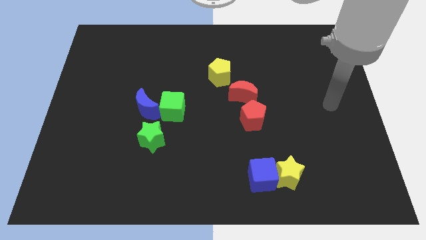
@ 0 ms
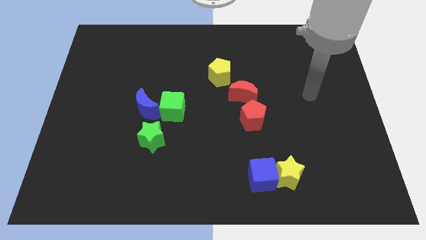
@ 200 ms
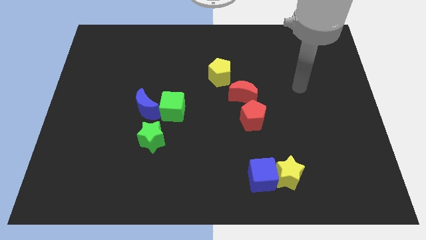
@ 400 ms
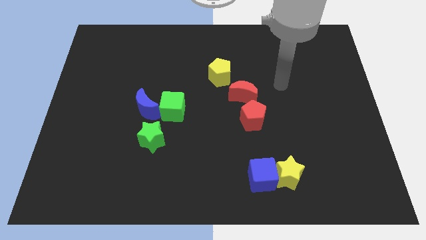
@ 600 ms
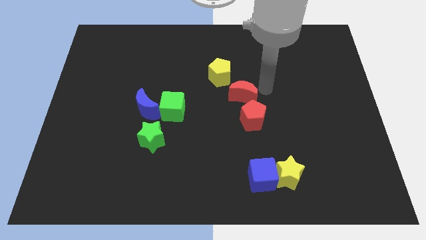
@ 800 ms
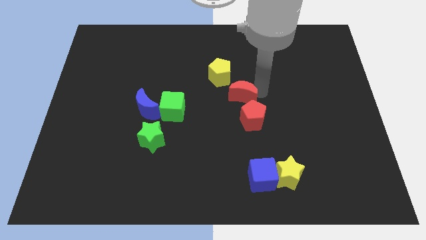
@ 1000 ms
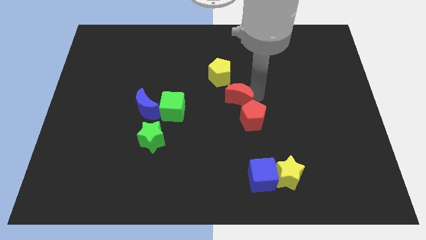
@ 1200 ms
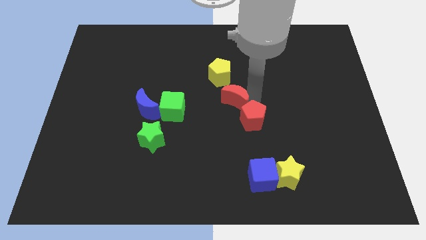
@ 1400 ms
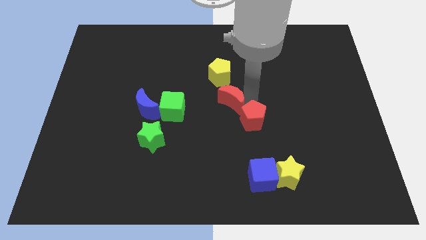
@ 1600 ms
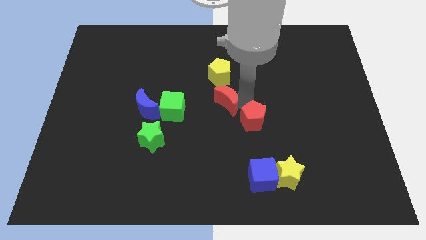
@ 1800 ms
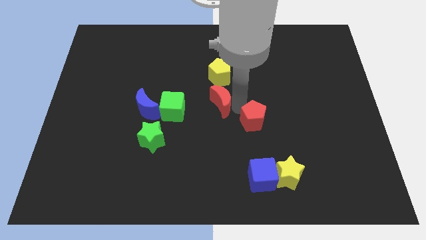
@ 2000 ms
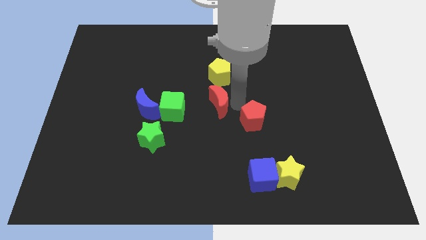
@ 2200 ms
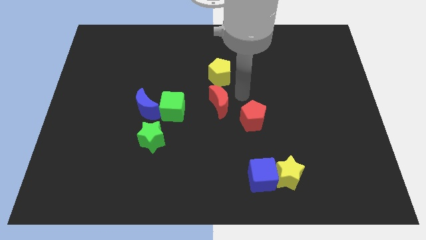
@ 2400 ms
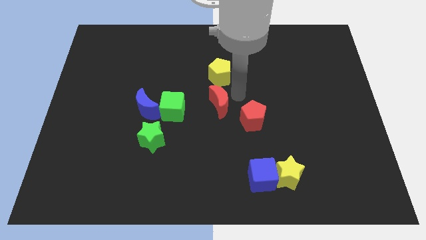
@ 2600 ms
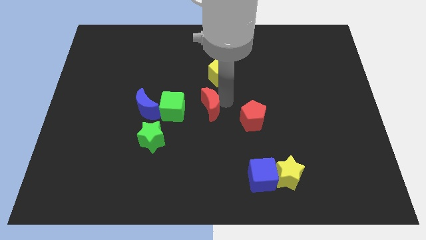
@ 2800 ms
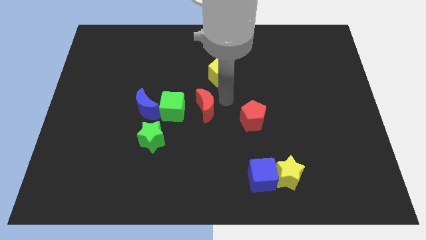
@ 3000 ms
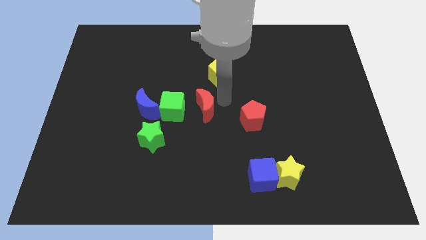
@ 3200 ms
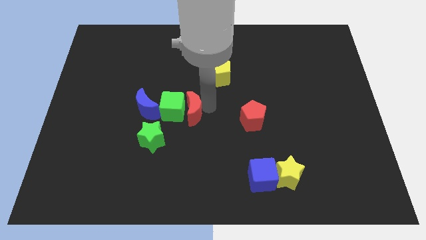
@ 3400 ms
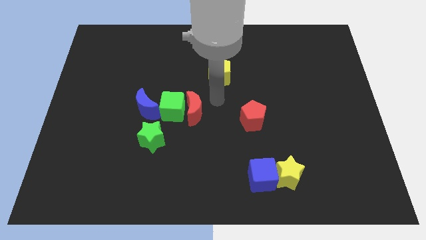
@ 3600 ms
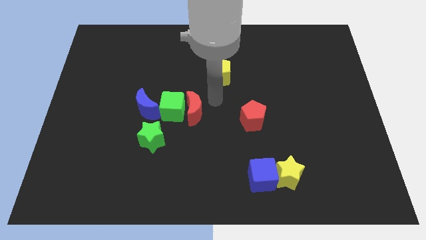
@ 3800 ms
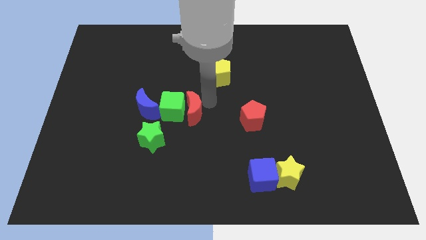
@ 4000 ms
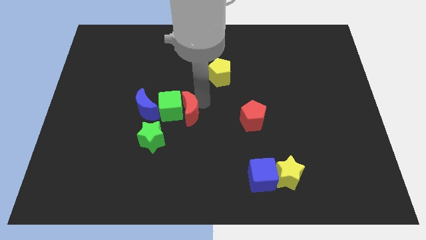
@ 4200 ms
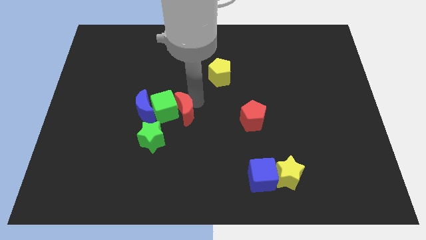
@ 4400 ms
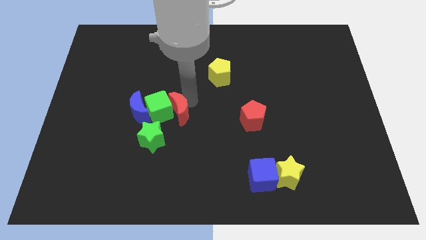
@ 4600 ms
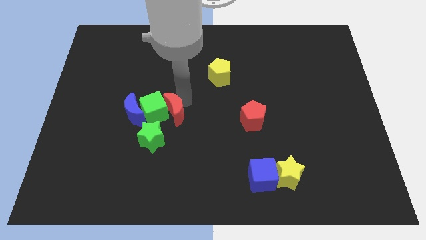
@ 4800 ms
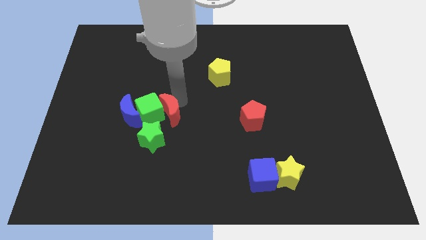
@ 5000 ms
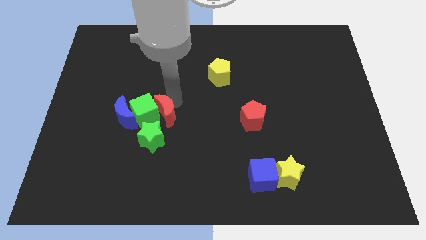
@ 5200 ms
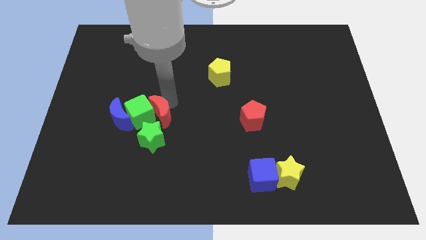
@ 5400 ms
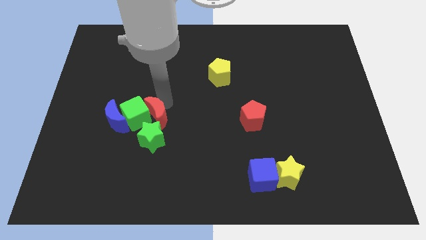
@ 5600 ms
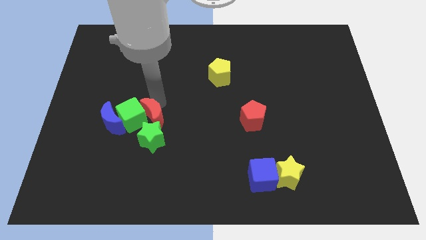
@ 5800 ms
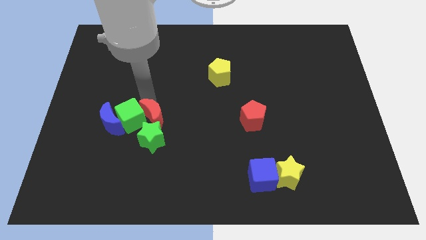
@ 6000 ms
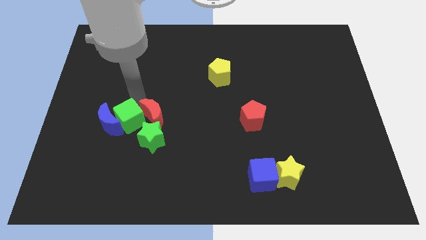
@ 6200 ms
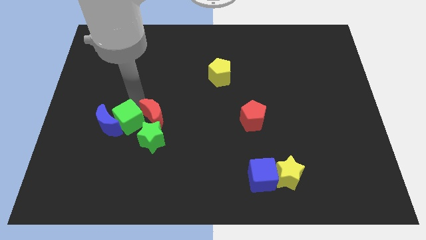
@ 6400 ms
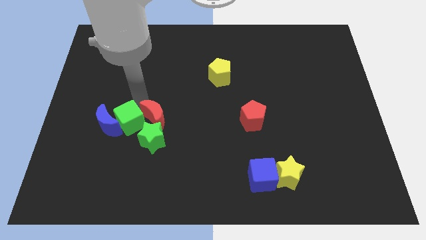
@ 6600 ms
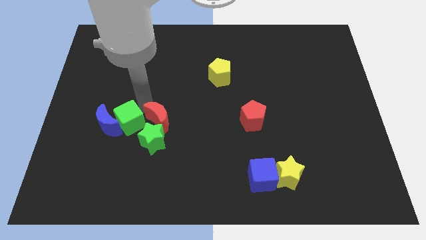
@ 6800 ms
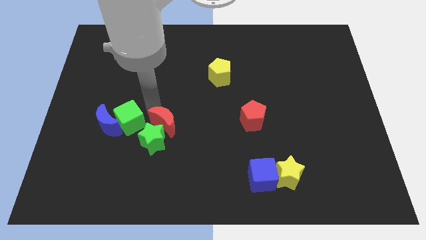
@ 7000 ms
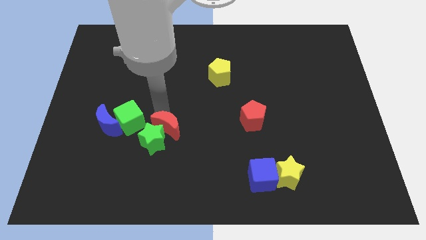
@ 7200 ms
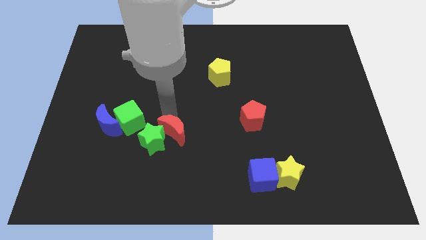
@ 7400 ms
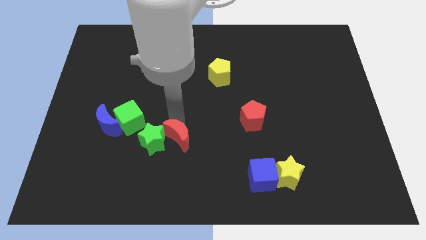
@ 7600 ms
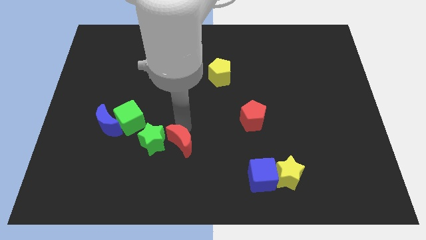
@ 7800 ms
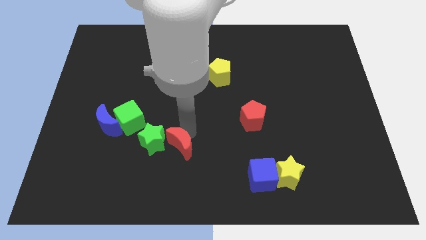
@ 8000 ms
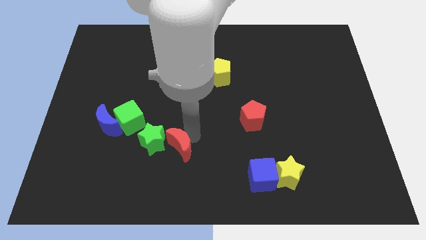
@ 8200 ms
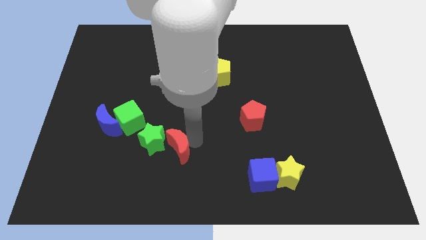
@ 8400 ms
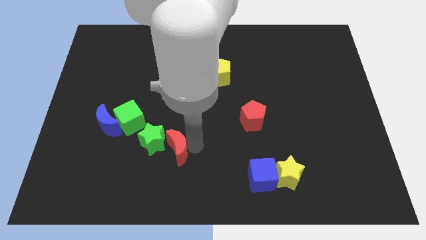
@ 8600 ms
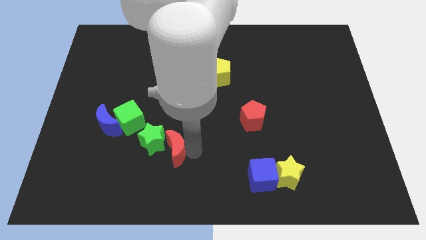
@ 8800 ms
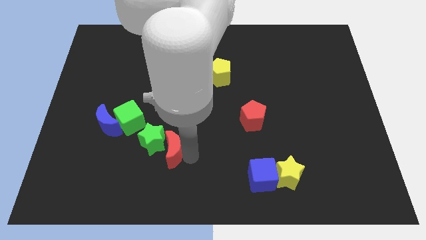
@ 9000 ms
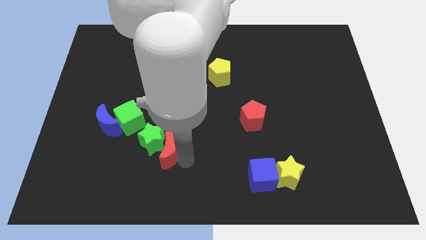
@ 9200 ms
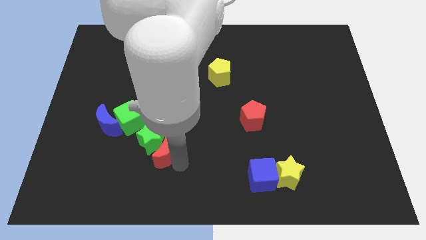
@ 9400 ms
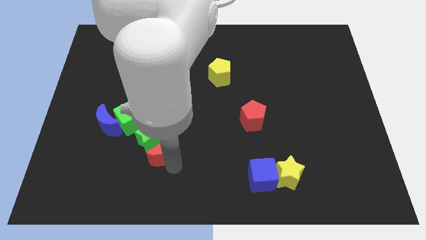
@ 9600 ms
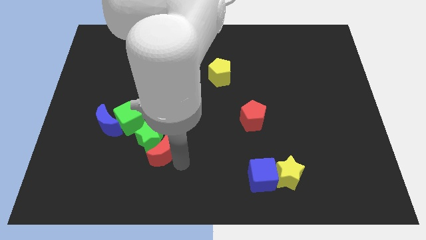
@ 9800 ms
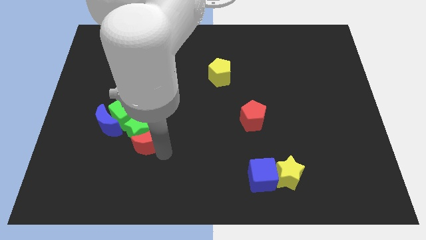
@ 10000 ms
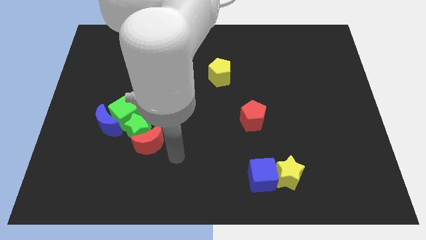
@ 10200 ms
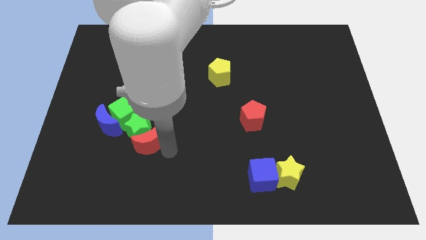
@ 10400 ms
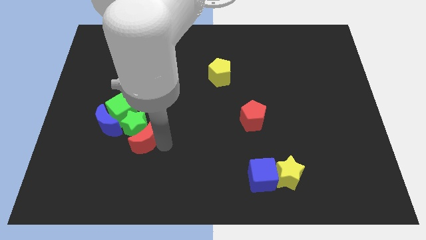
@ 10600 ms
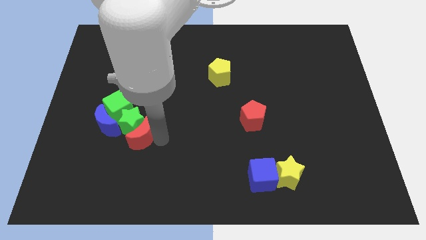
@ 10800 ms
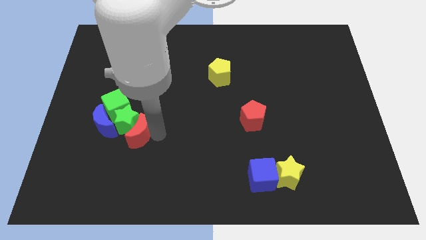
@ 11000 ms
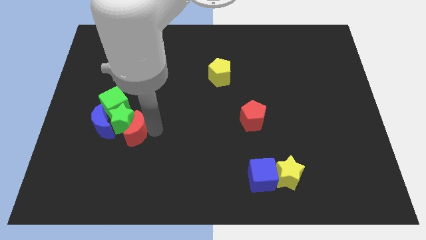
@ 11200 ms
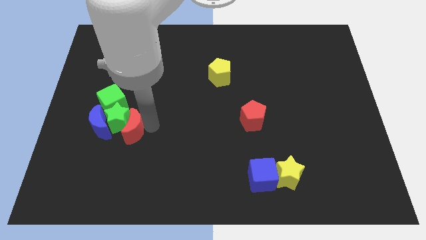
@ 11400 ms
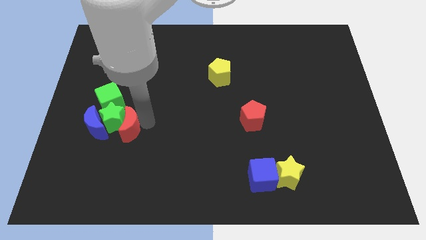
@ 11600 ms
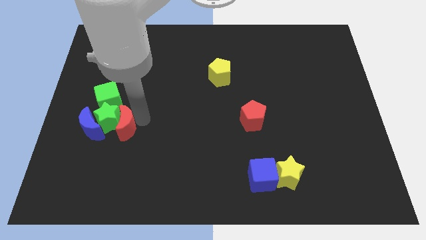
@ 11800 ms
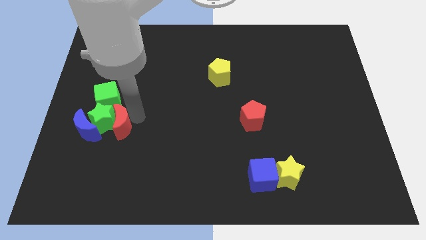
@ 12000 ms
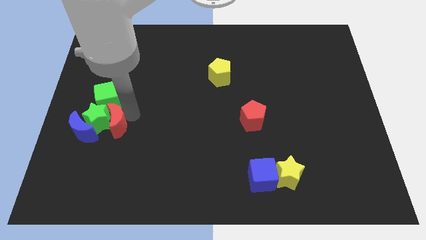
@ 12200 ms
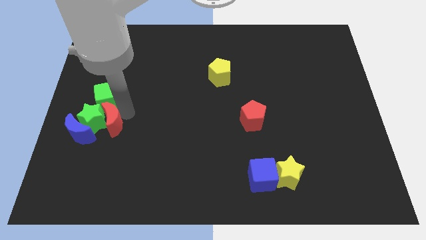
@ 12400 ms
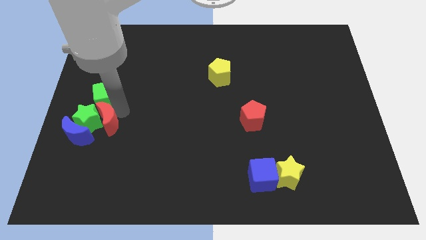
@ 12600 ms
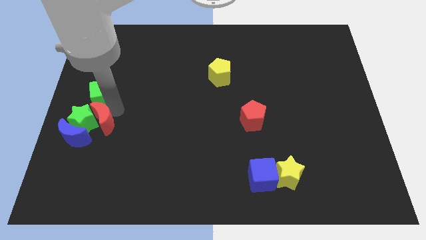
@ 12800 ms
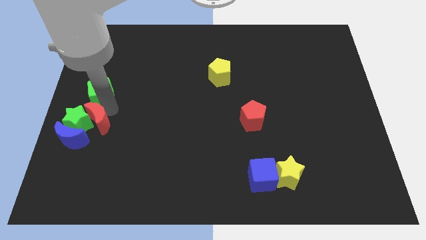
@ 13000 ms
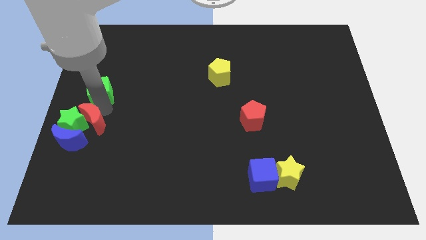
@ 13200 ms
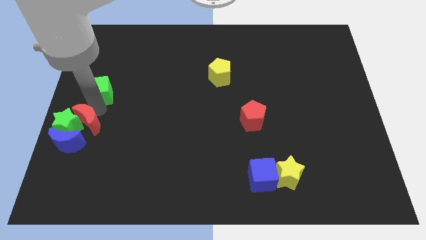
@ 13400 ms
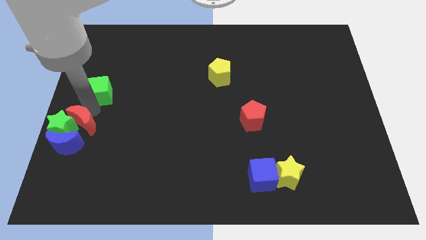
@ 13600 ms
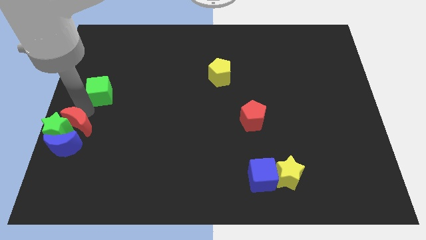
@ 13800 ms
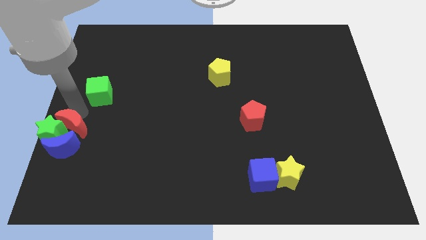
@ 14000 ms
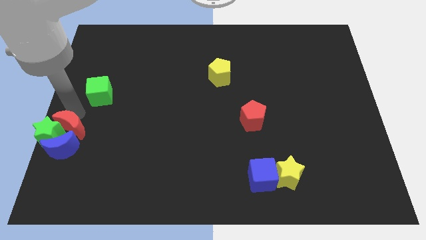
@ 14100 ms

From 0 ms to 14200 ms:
slide the red moon close to the blue moon
